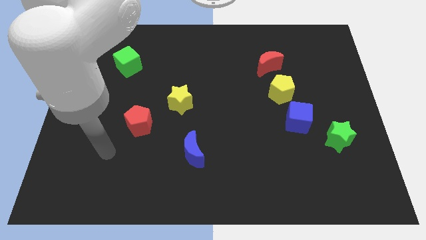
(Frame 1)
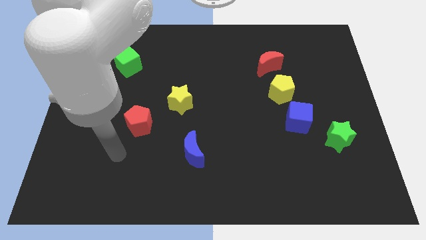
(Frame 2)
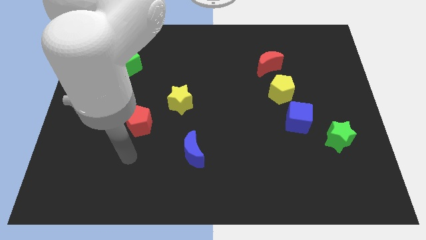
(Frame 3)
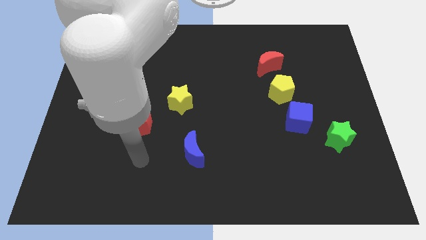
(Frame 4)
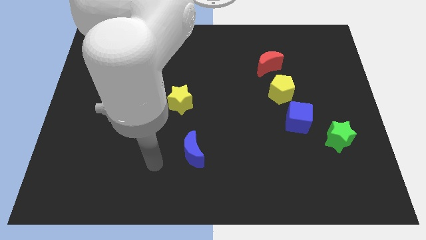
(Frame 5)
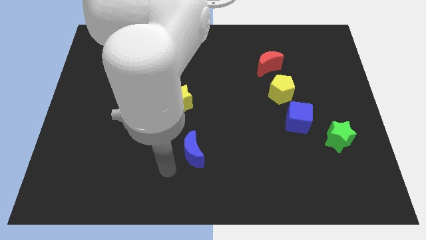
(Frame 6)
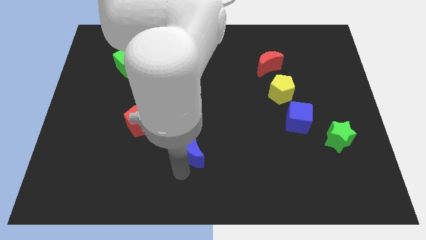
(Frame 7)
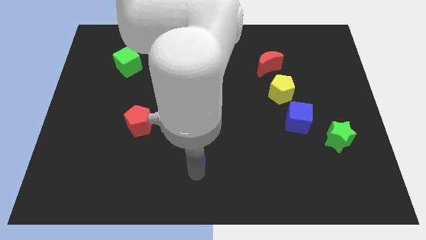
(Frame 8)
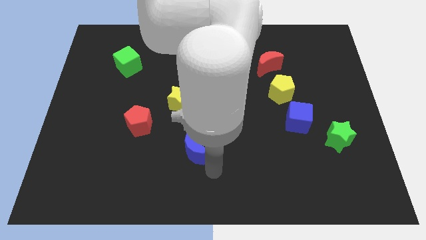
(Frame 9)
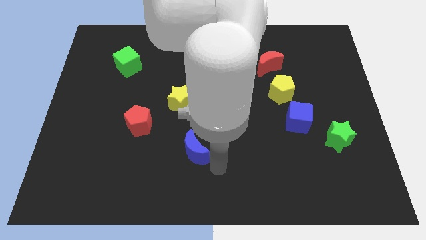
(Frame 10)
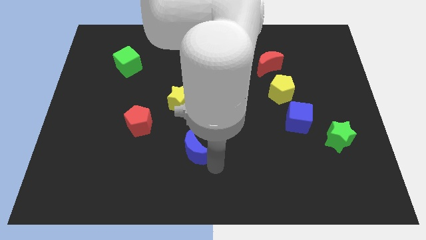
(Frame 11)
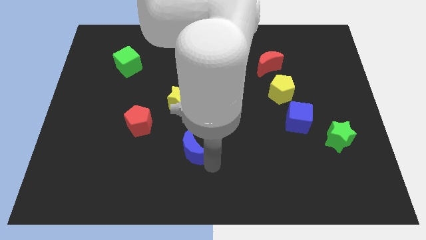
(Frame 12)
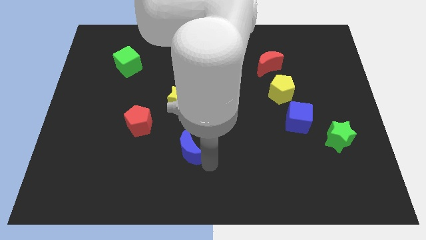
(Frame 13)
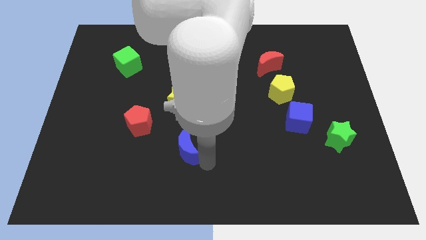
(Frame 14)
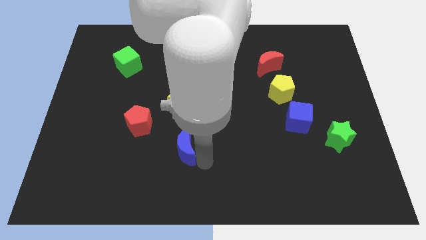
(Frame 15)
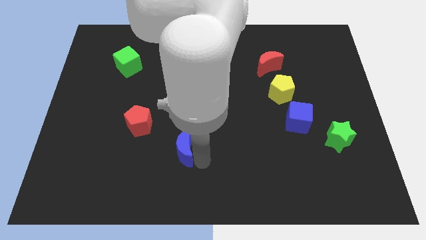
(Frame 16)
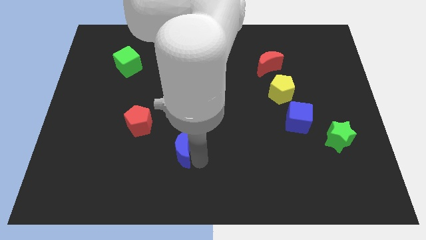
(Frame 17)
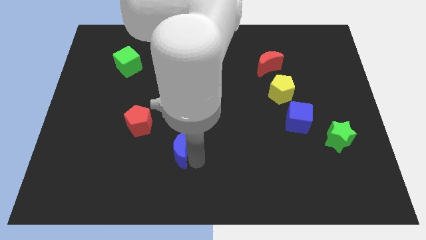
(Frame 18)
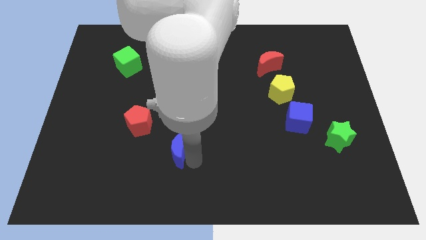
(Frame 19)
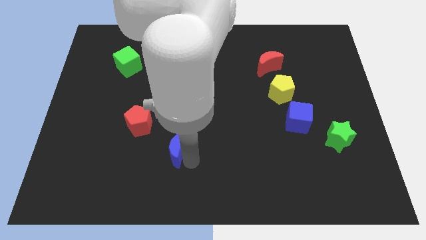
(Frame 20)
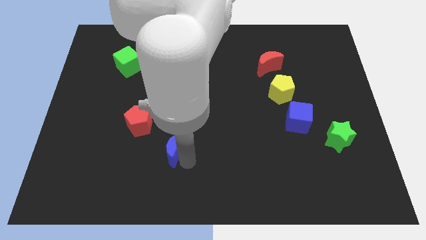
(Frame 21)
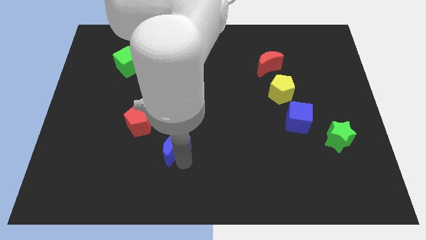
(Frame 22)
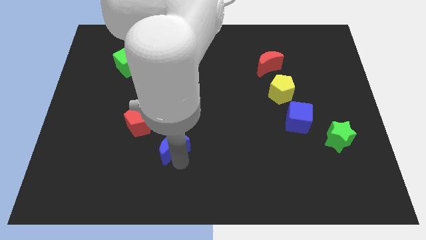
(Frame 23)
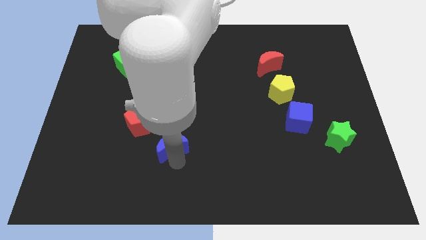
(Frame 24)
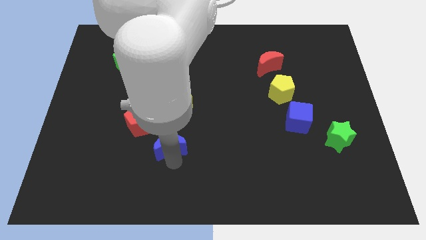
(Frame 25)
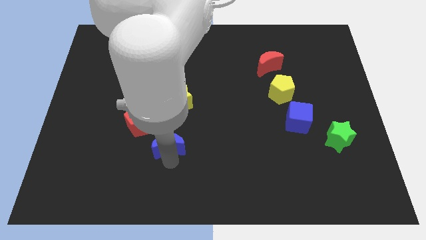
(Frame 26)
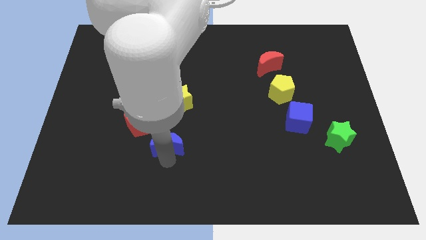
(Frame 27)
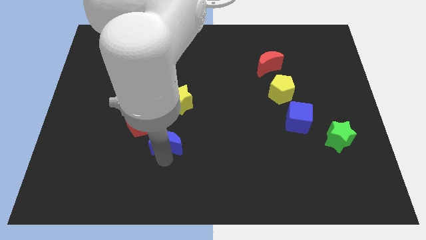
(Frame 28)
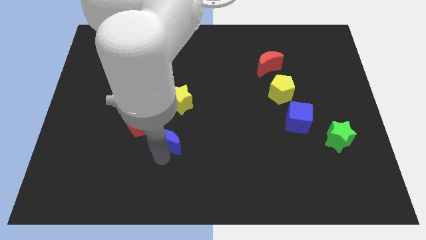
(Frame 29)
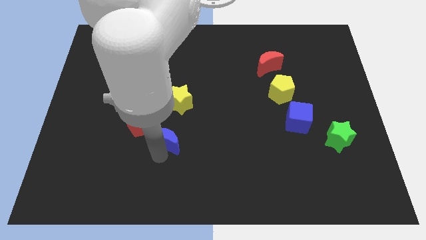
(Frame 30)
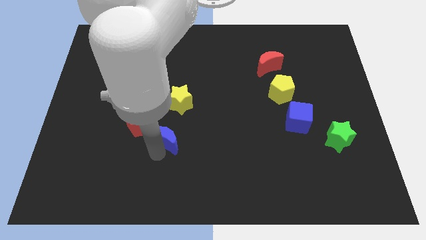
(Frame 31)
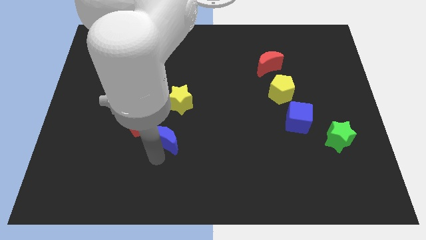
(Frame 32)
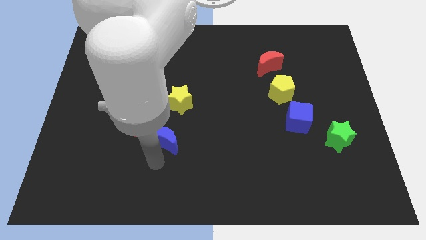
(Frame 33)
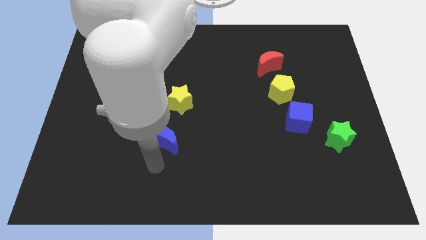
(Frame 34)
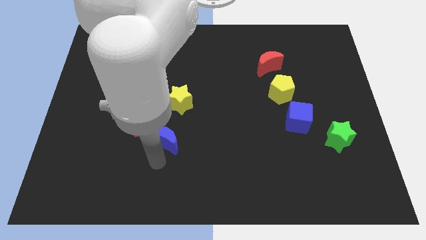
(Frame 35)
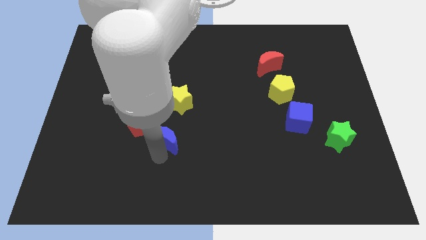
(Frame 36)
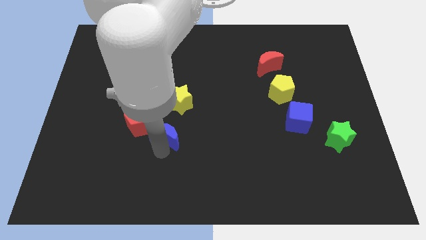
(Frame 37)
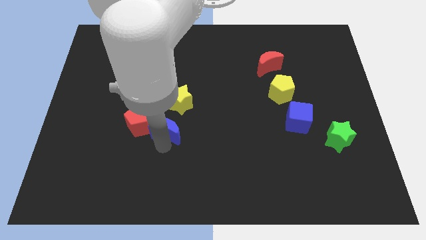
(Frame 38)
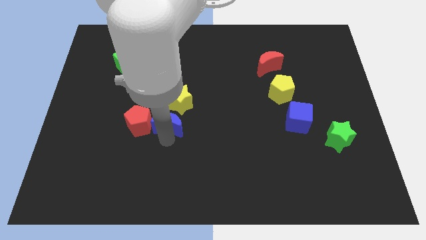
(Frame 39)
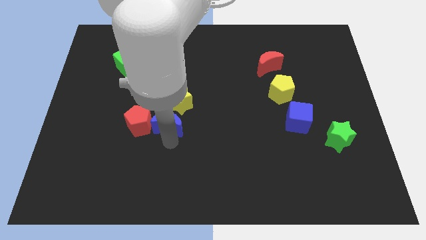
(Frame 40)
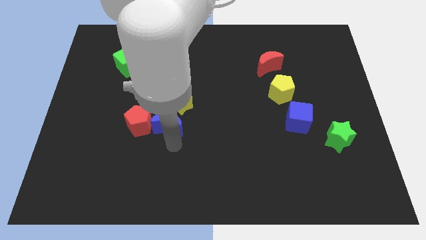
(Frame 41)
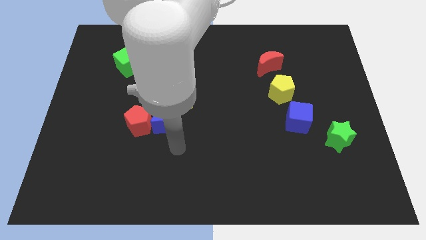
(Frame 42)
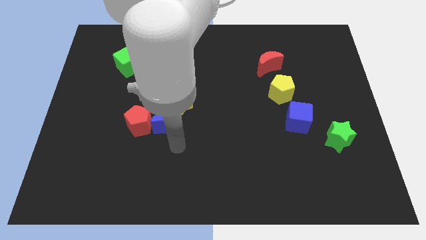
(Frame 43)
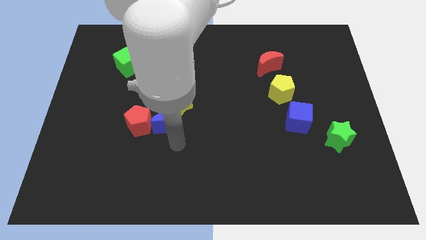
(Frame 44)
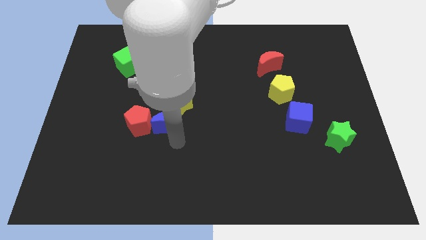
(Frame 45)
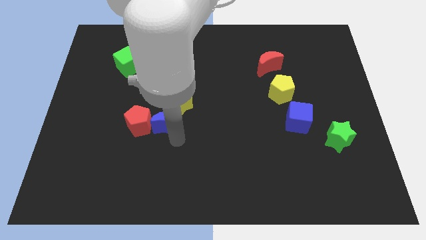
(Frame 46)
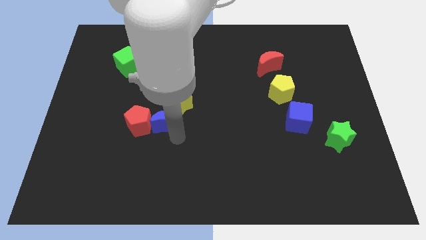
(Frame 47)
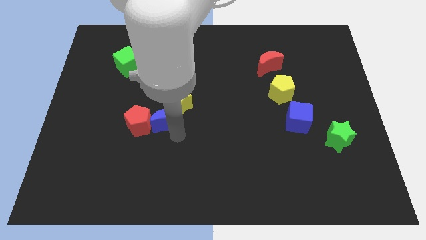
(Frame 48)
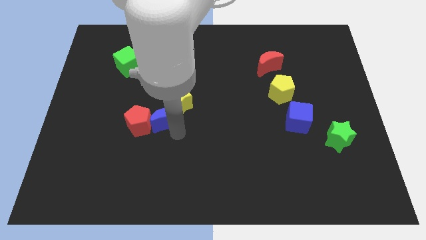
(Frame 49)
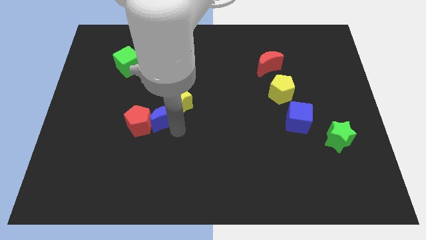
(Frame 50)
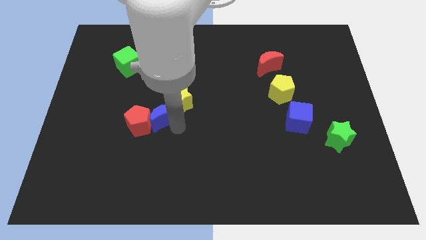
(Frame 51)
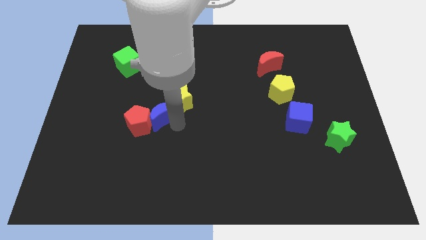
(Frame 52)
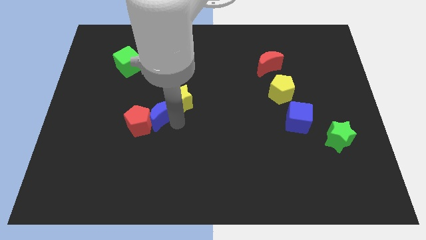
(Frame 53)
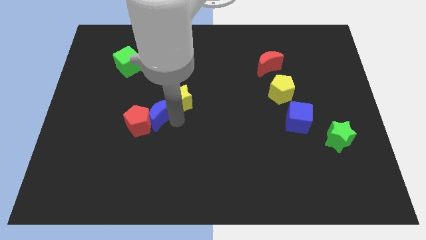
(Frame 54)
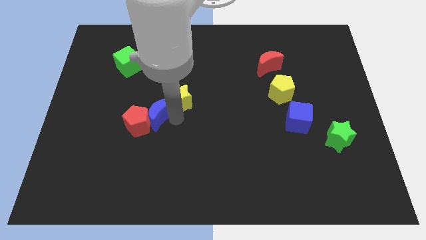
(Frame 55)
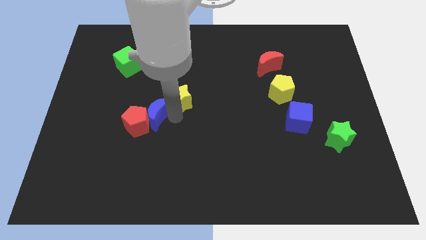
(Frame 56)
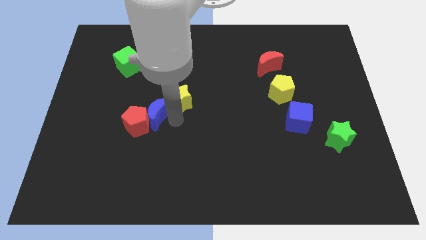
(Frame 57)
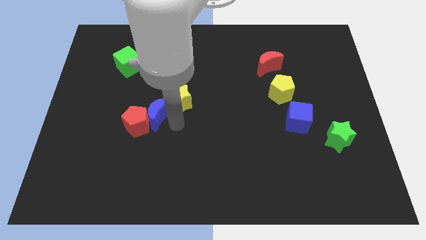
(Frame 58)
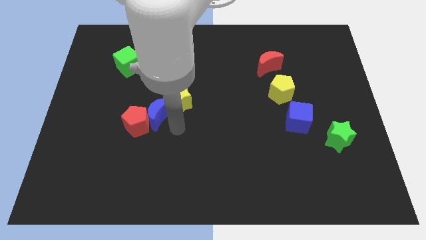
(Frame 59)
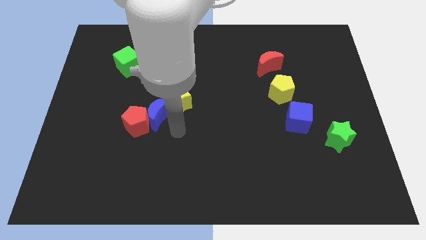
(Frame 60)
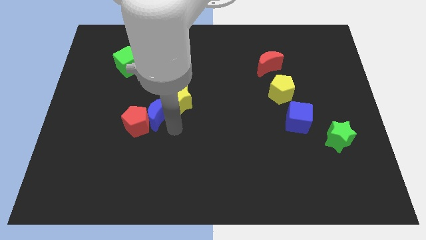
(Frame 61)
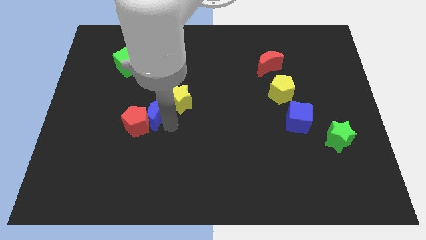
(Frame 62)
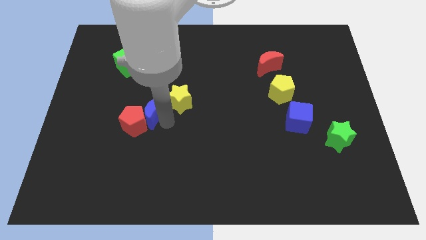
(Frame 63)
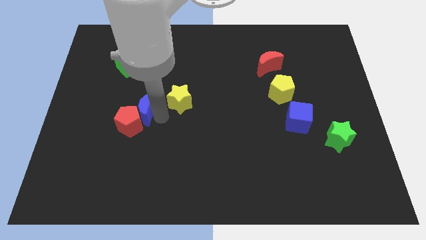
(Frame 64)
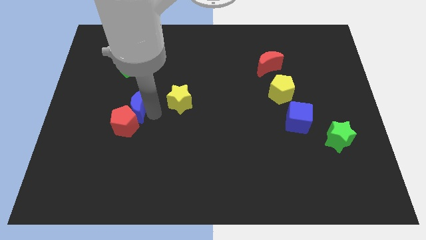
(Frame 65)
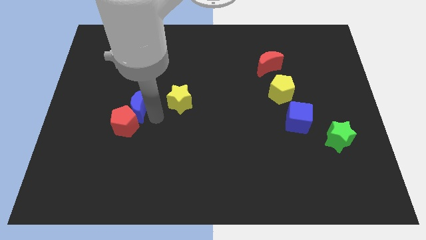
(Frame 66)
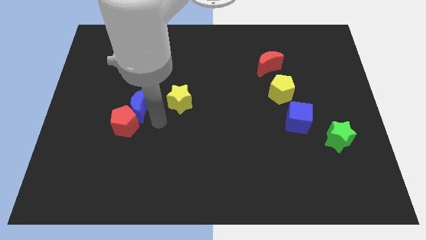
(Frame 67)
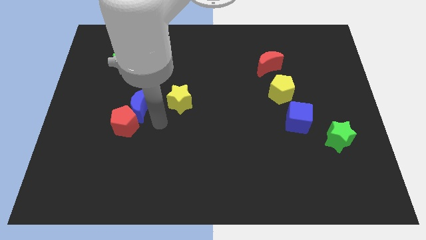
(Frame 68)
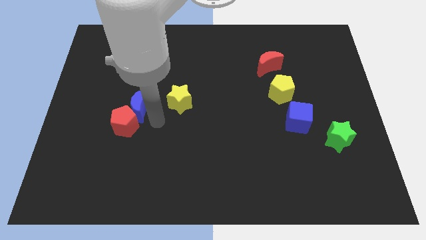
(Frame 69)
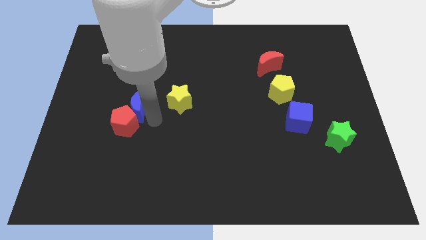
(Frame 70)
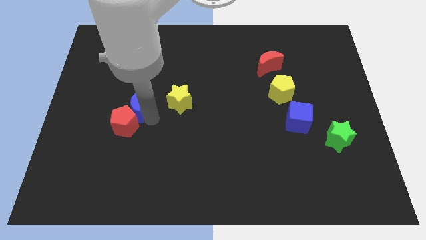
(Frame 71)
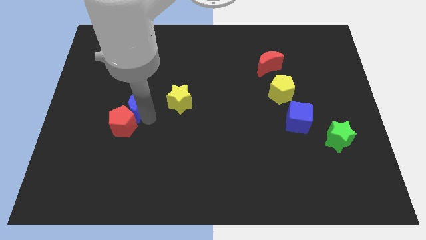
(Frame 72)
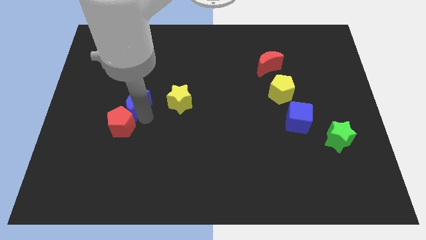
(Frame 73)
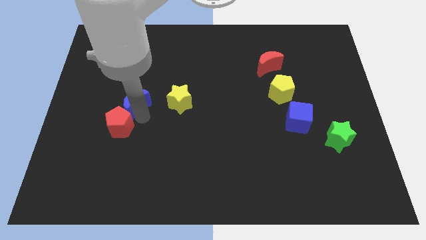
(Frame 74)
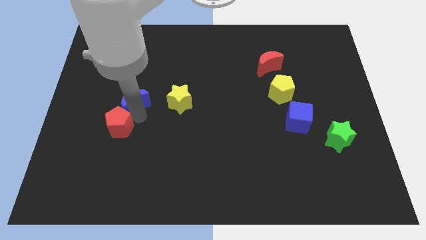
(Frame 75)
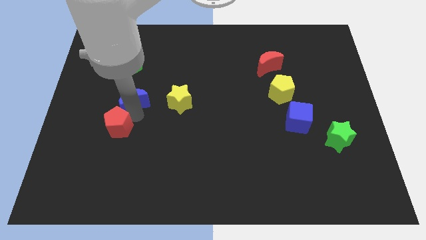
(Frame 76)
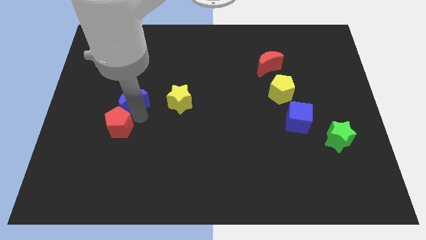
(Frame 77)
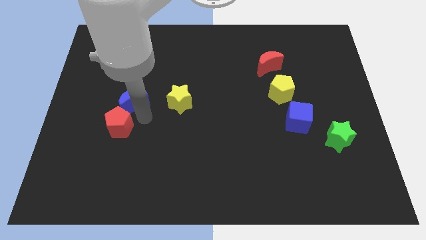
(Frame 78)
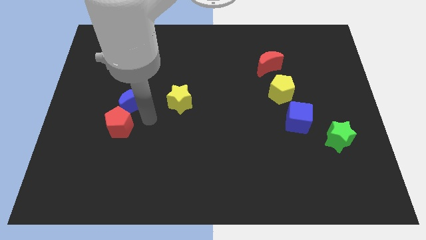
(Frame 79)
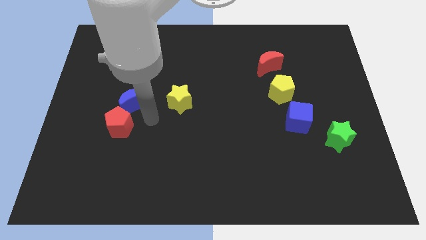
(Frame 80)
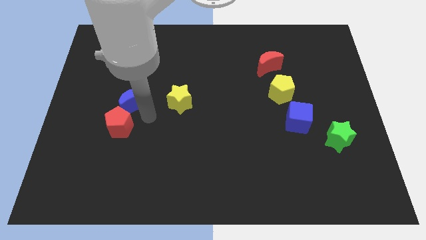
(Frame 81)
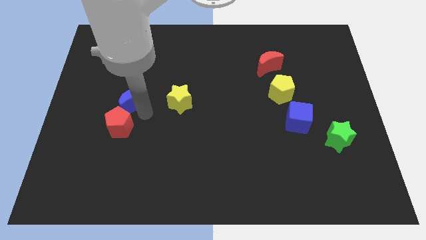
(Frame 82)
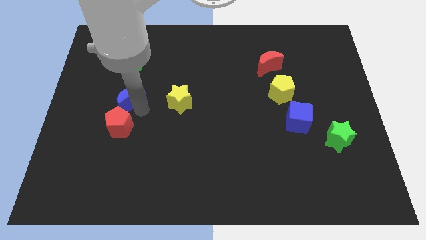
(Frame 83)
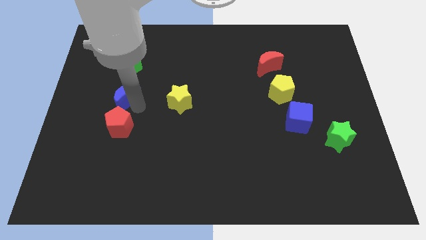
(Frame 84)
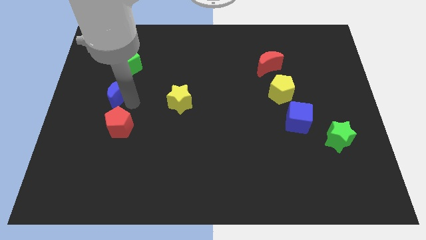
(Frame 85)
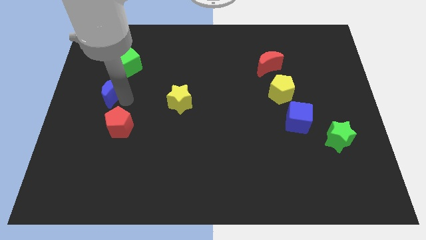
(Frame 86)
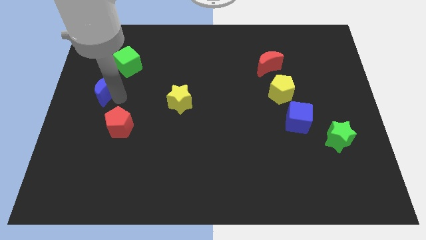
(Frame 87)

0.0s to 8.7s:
push the blue moon diagonally down and to the left of the green cube
